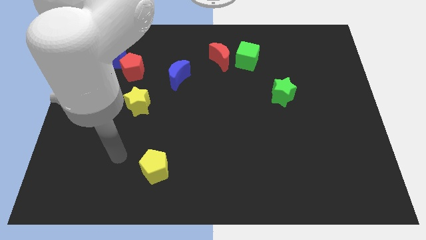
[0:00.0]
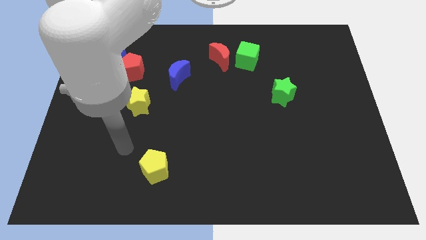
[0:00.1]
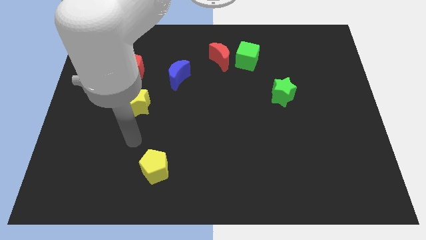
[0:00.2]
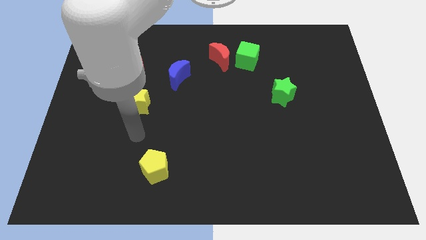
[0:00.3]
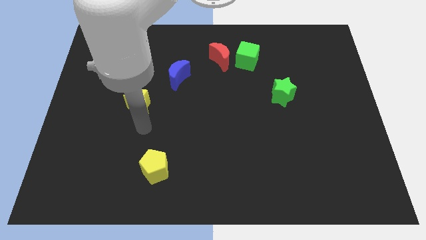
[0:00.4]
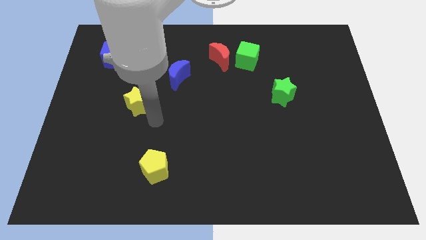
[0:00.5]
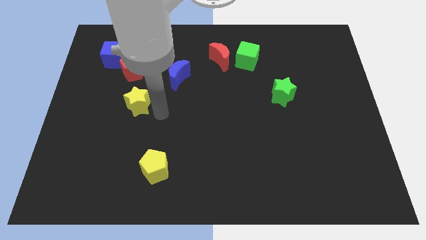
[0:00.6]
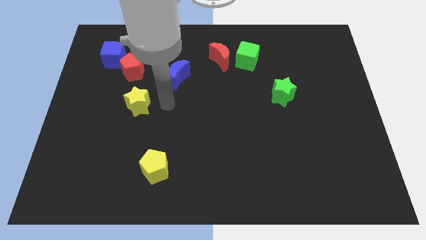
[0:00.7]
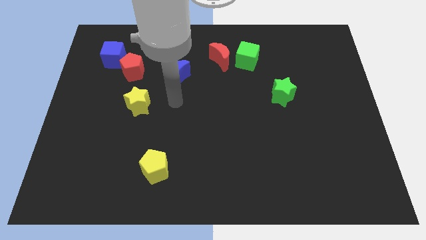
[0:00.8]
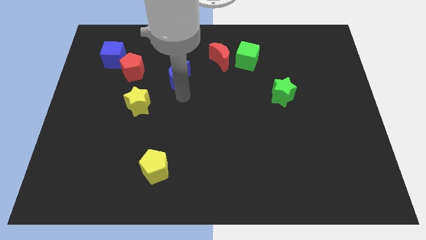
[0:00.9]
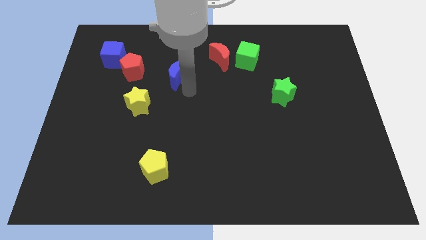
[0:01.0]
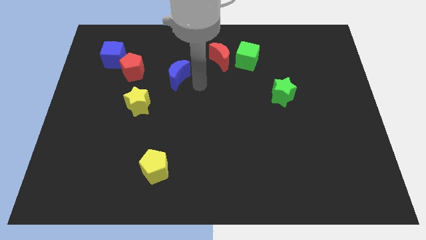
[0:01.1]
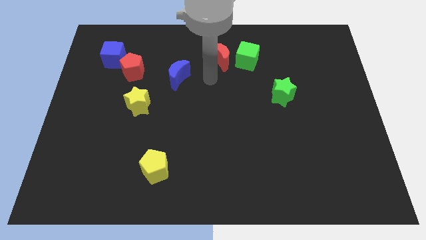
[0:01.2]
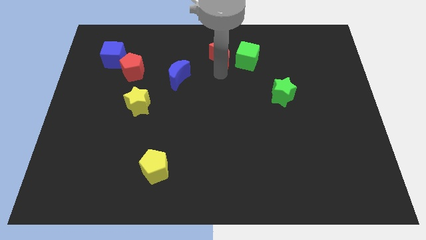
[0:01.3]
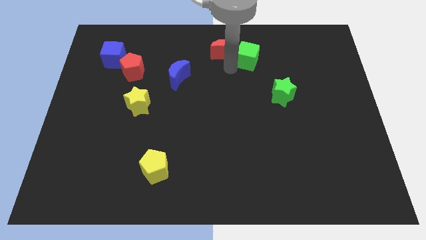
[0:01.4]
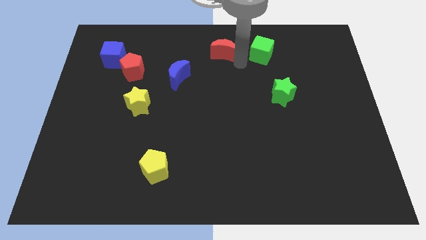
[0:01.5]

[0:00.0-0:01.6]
separate the red moon from the green cube

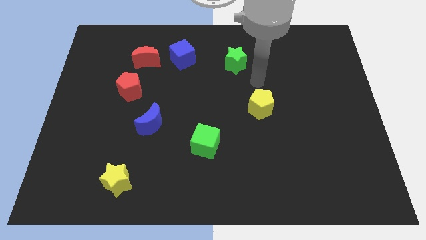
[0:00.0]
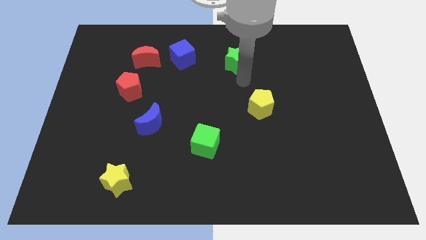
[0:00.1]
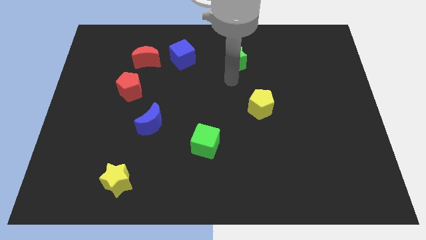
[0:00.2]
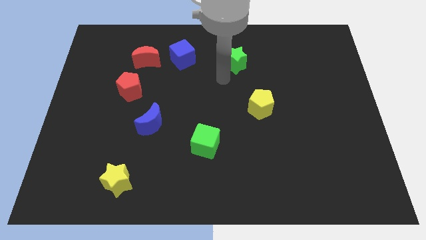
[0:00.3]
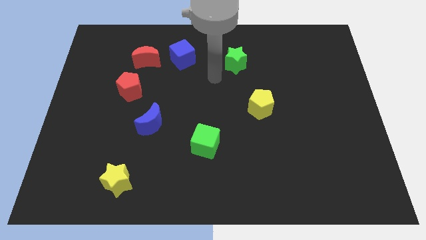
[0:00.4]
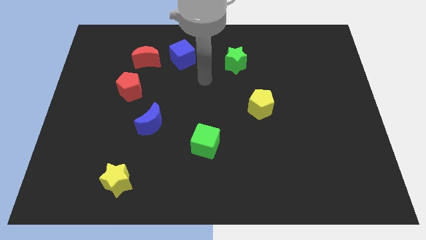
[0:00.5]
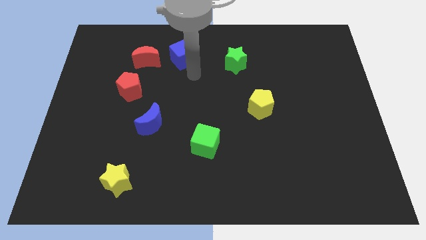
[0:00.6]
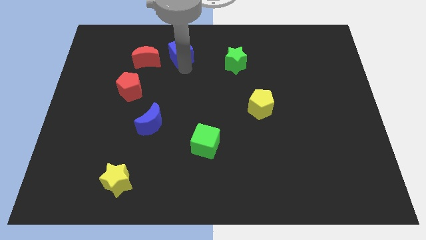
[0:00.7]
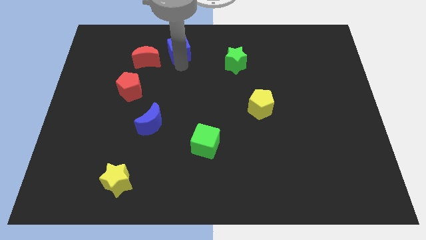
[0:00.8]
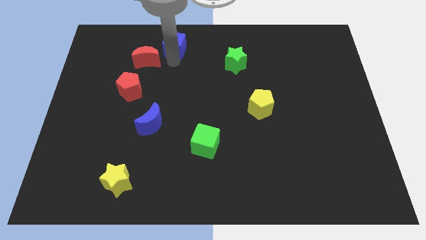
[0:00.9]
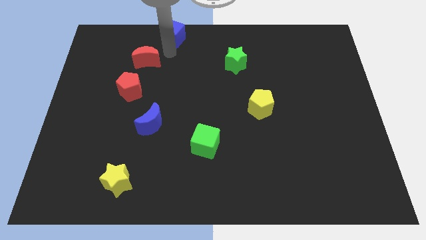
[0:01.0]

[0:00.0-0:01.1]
pull the red moon apart from the blue cube

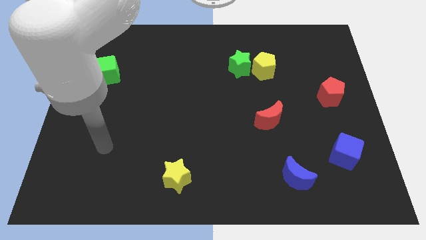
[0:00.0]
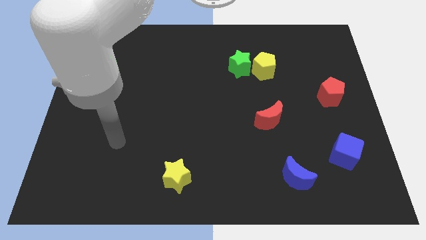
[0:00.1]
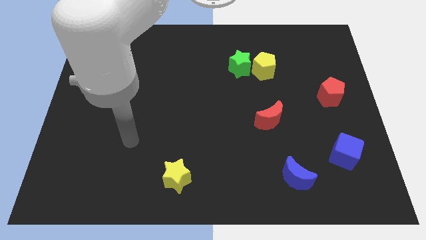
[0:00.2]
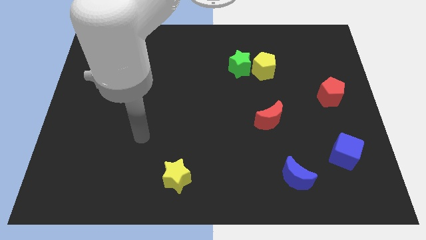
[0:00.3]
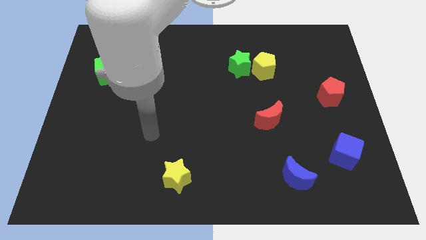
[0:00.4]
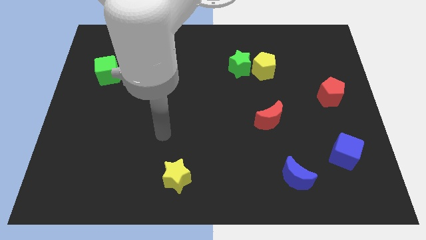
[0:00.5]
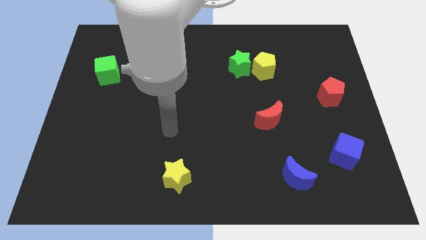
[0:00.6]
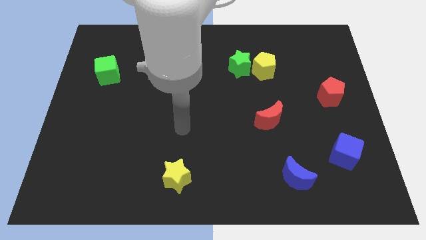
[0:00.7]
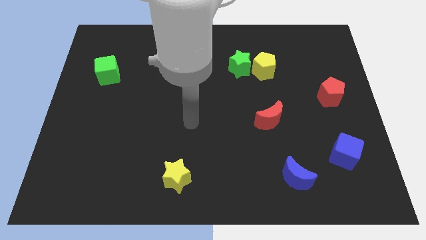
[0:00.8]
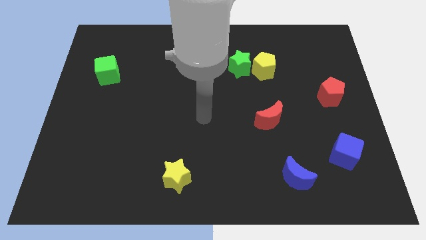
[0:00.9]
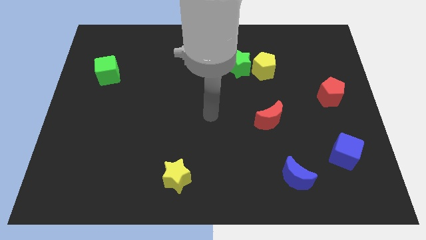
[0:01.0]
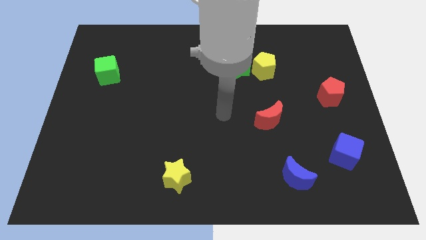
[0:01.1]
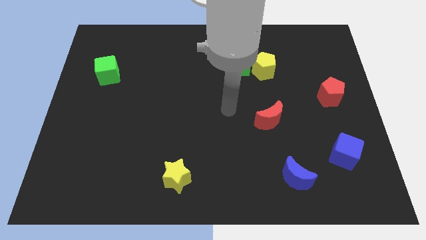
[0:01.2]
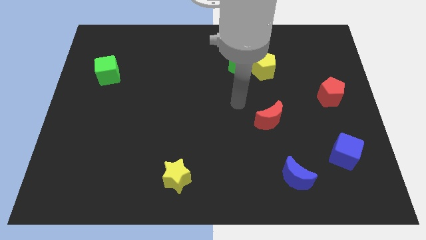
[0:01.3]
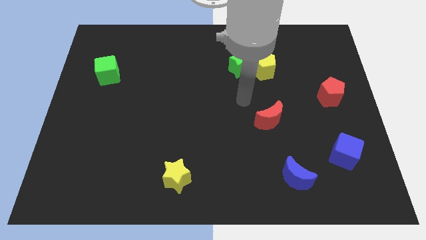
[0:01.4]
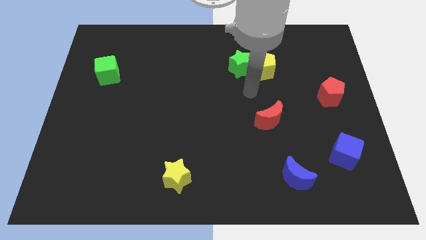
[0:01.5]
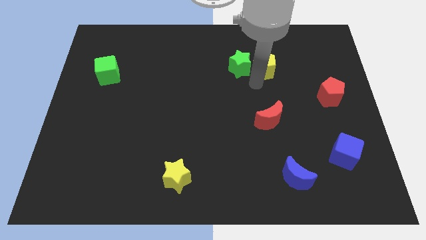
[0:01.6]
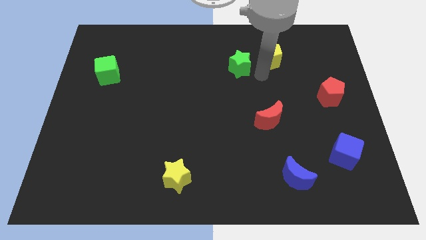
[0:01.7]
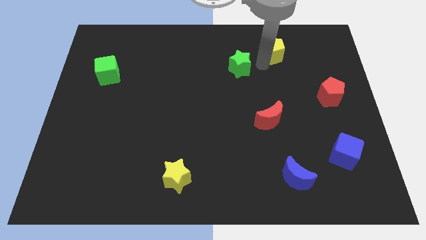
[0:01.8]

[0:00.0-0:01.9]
separate the green star from the yellow pentagon

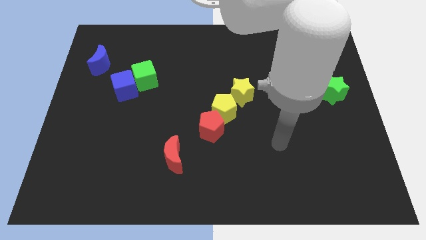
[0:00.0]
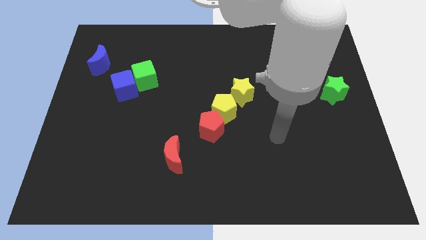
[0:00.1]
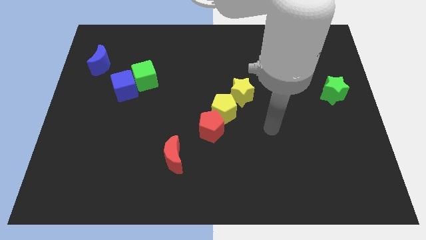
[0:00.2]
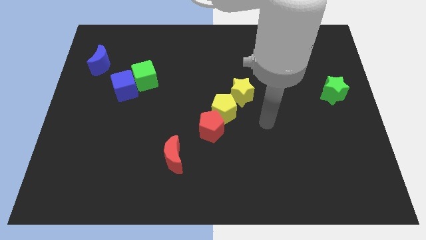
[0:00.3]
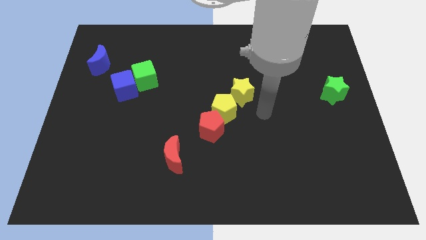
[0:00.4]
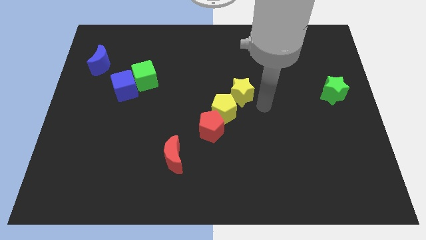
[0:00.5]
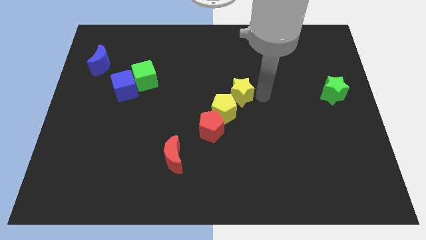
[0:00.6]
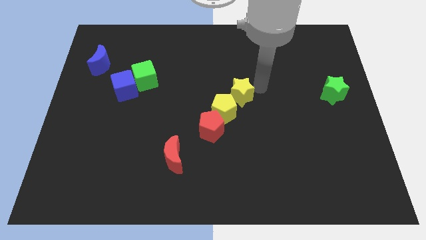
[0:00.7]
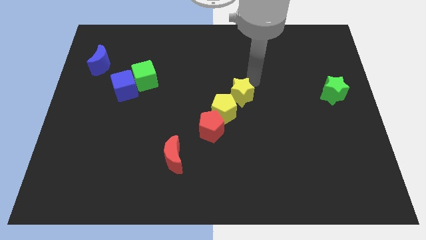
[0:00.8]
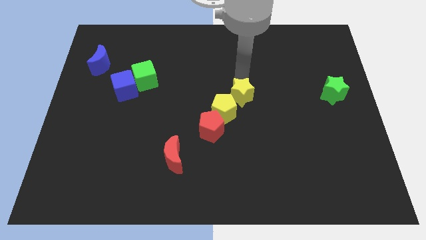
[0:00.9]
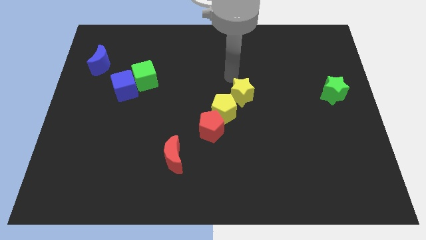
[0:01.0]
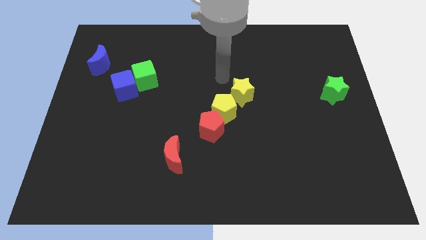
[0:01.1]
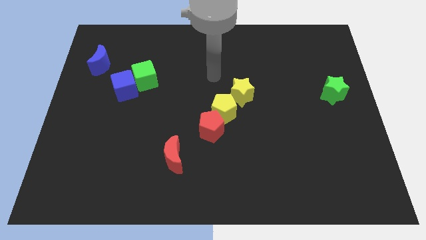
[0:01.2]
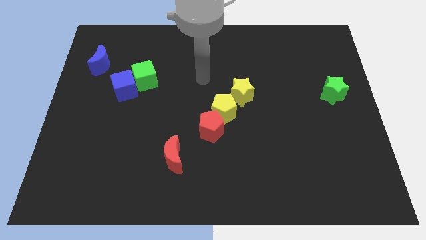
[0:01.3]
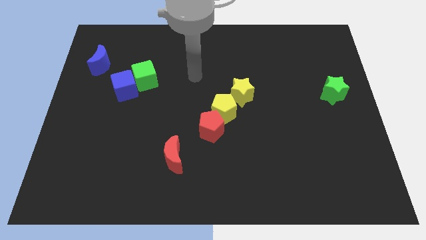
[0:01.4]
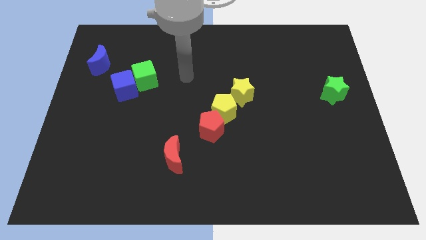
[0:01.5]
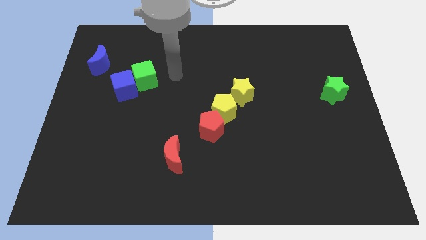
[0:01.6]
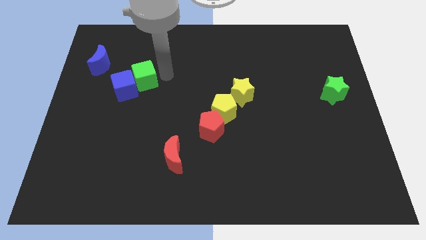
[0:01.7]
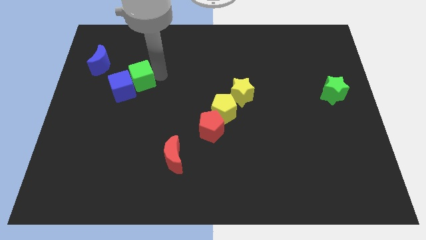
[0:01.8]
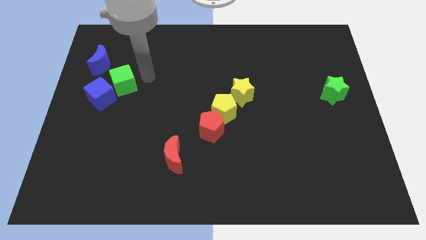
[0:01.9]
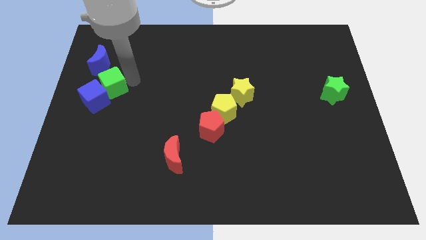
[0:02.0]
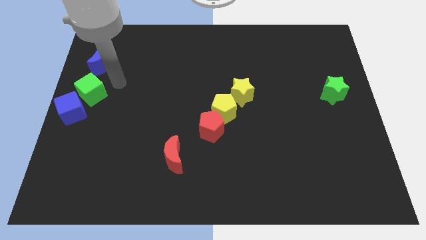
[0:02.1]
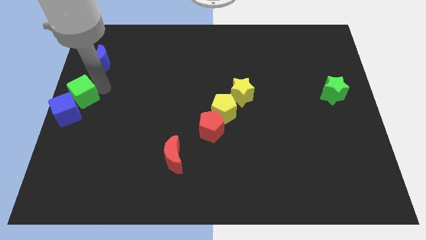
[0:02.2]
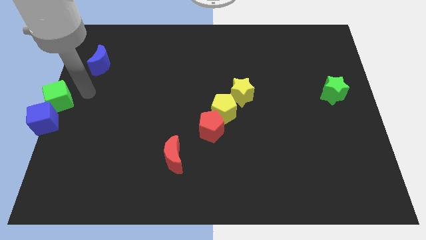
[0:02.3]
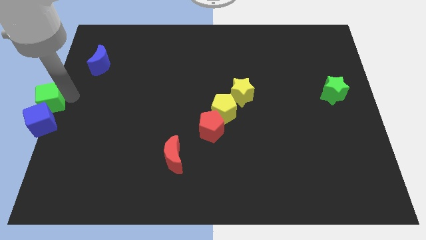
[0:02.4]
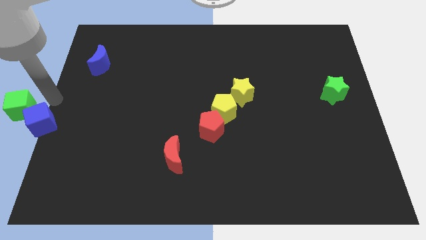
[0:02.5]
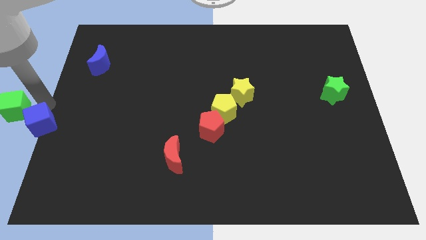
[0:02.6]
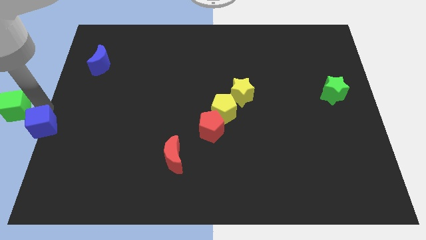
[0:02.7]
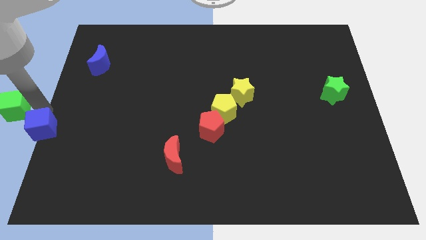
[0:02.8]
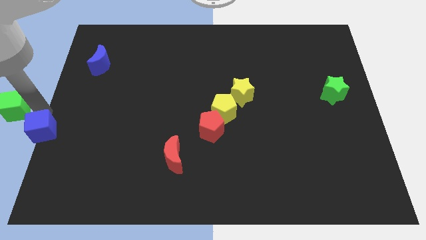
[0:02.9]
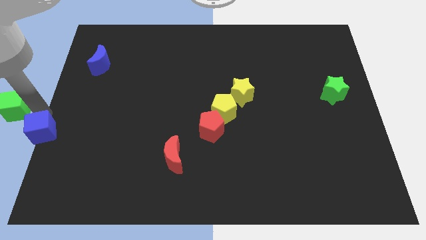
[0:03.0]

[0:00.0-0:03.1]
separate the blue cube from the green cube

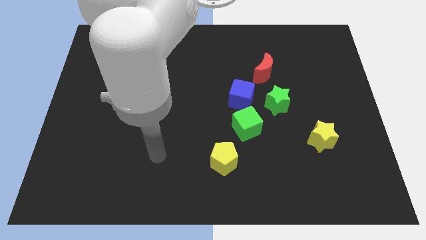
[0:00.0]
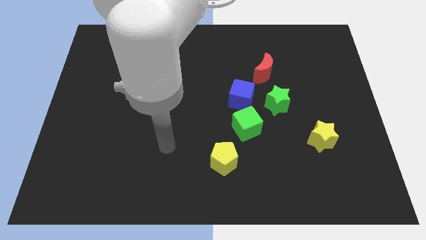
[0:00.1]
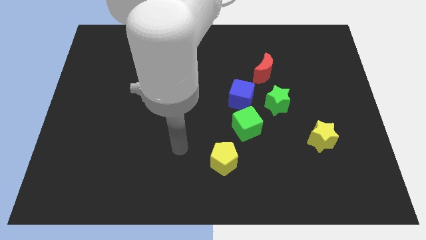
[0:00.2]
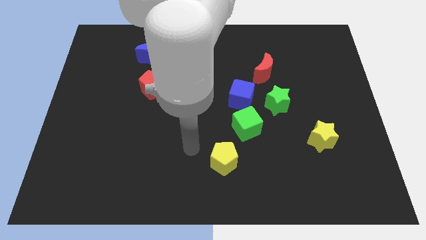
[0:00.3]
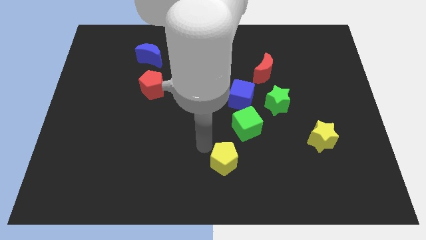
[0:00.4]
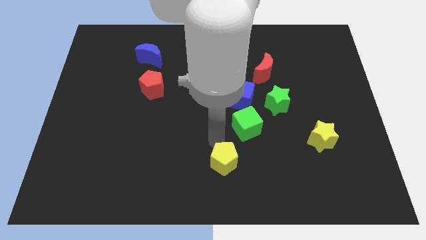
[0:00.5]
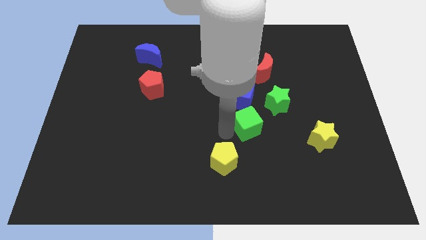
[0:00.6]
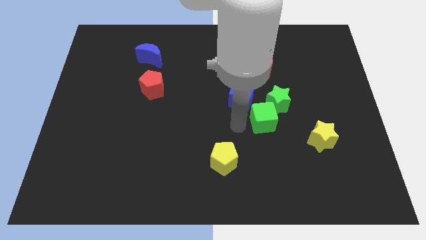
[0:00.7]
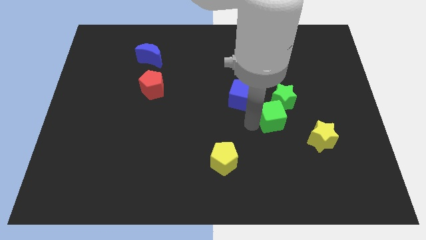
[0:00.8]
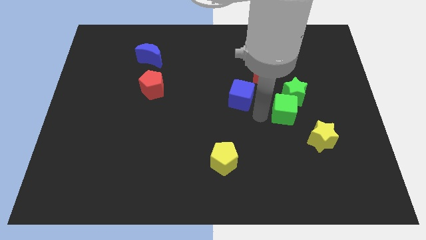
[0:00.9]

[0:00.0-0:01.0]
move the blue cube away from the green cube and green star

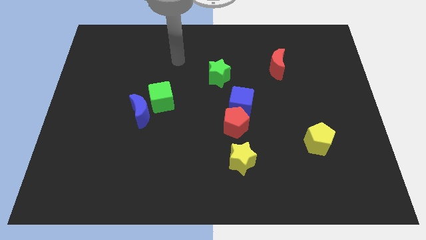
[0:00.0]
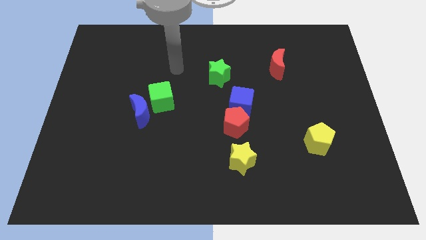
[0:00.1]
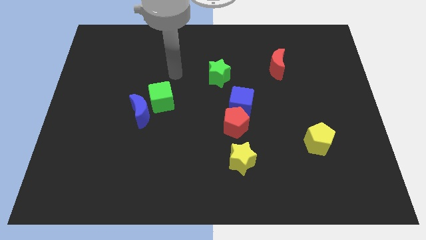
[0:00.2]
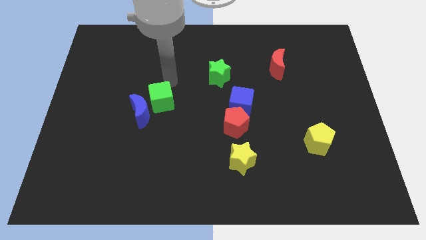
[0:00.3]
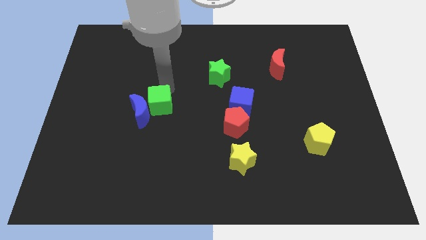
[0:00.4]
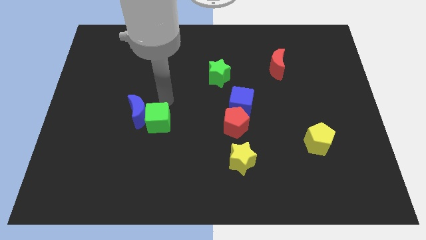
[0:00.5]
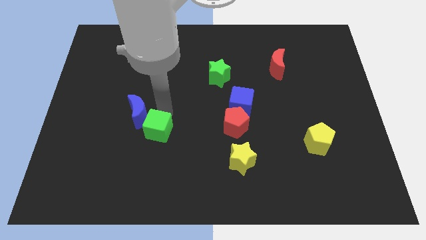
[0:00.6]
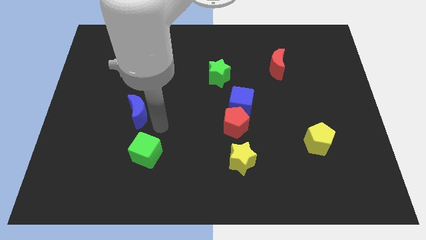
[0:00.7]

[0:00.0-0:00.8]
pull the blue moon apart from the green cube

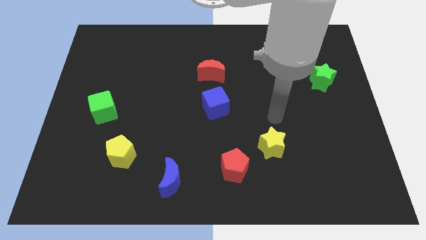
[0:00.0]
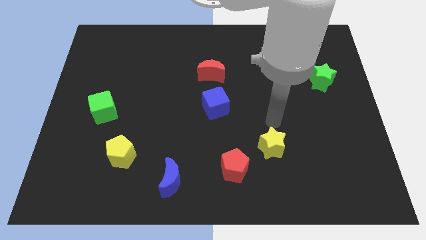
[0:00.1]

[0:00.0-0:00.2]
separate the red pentagon from the yellow star
